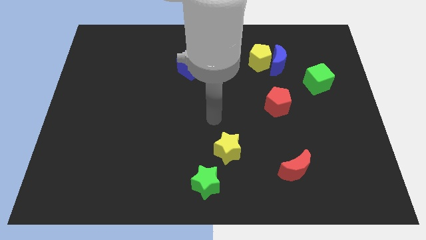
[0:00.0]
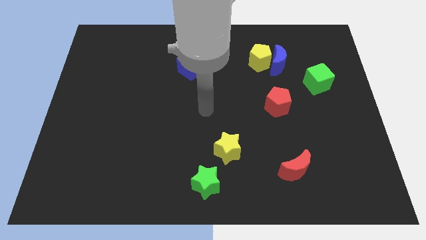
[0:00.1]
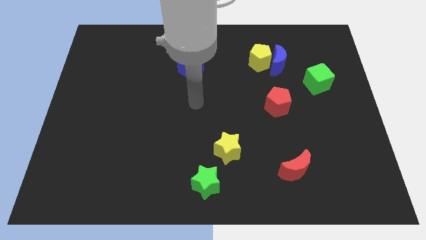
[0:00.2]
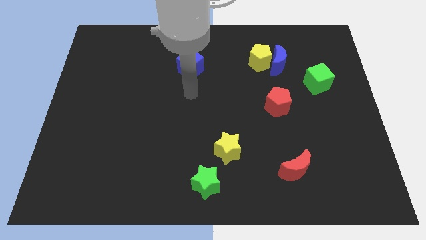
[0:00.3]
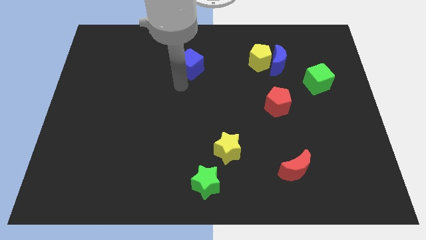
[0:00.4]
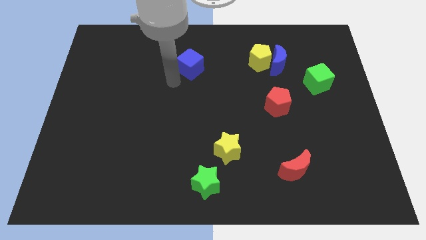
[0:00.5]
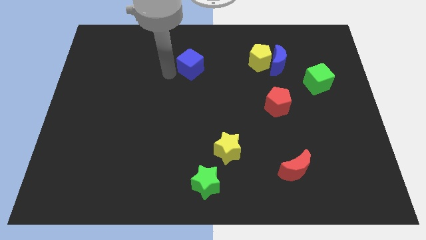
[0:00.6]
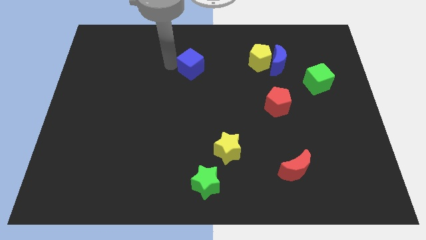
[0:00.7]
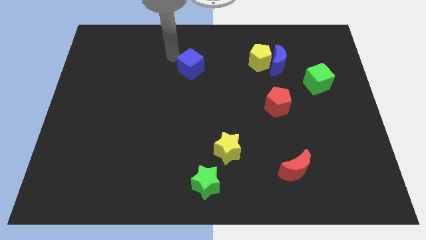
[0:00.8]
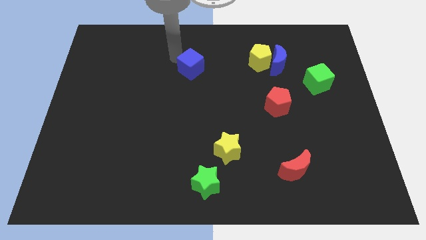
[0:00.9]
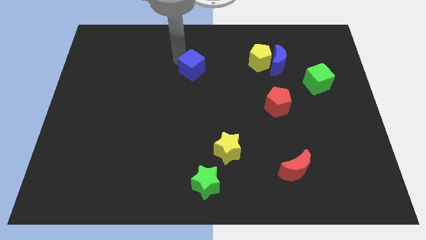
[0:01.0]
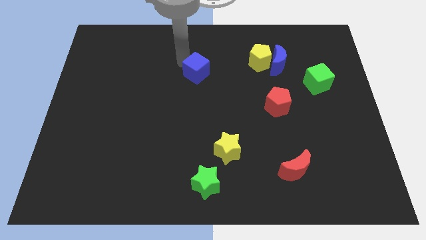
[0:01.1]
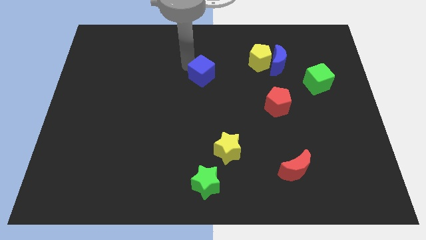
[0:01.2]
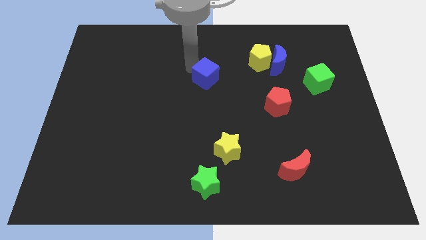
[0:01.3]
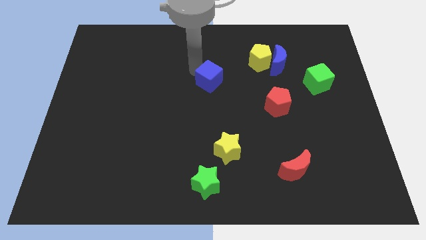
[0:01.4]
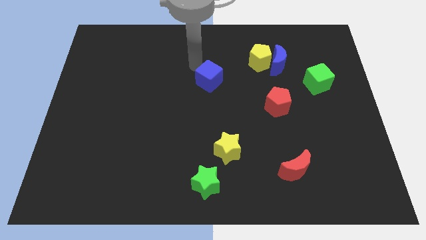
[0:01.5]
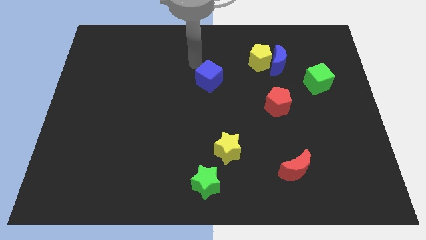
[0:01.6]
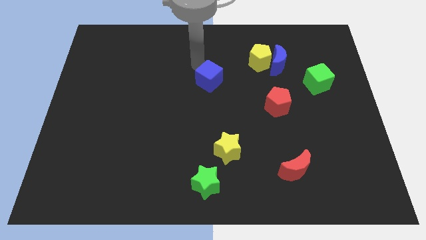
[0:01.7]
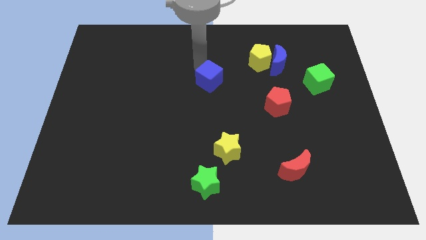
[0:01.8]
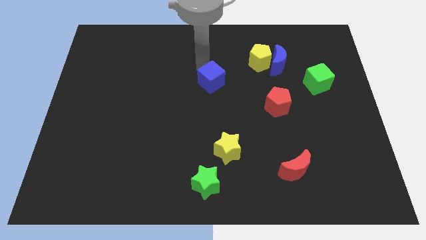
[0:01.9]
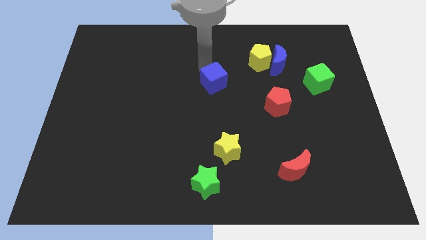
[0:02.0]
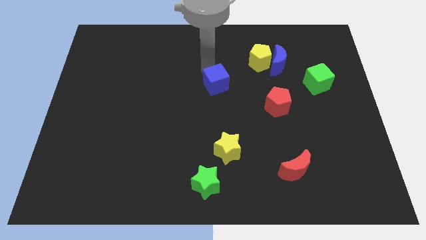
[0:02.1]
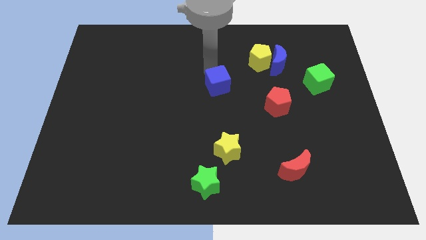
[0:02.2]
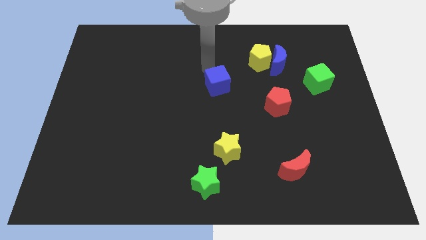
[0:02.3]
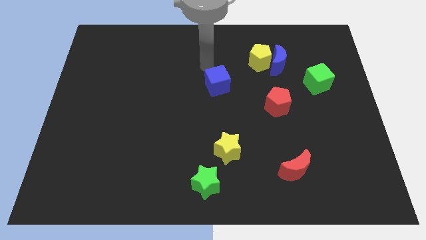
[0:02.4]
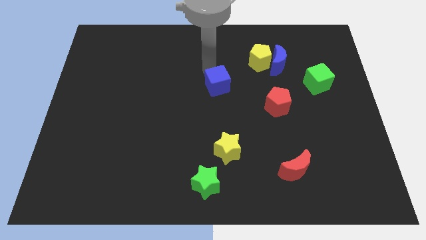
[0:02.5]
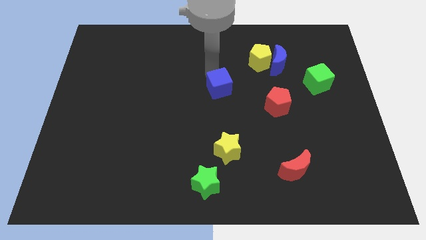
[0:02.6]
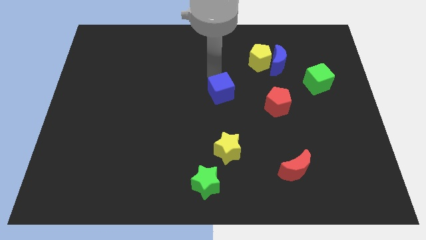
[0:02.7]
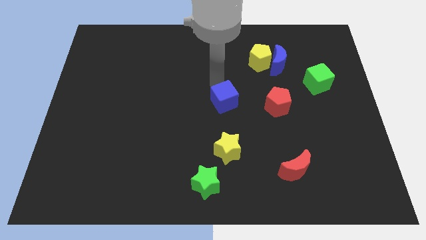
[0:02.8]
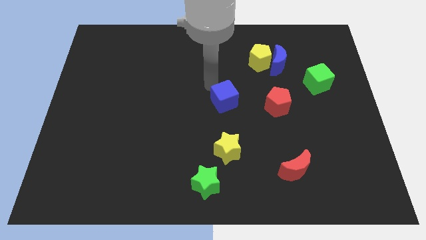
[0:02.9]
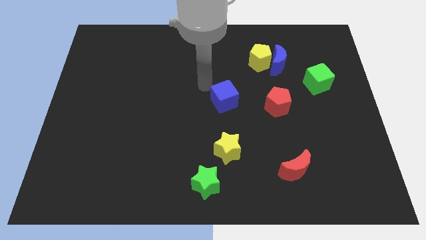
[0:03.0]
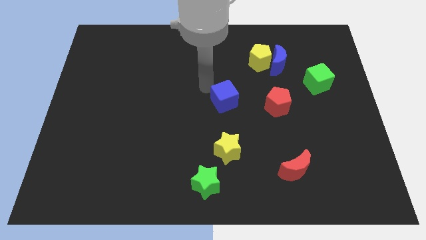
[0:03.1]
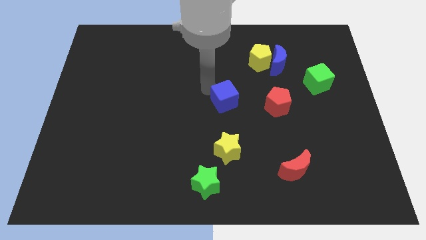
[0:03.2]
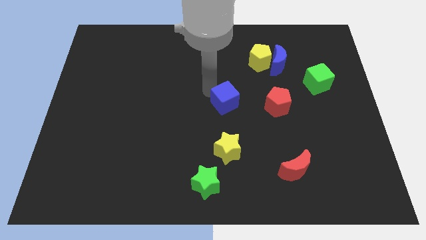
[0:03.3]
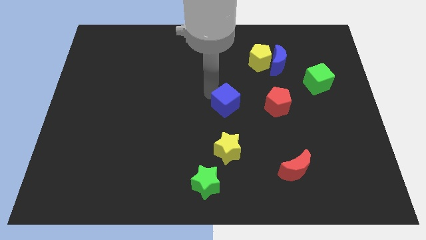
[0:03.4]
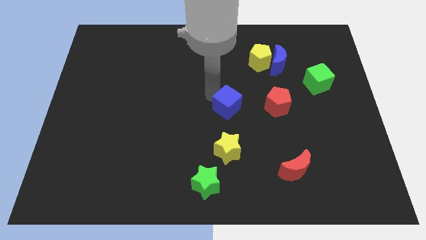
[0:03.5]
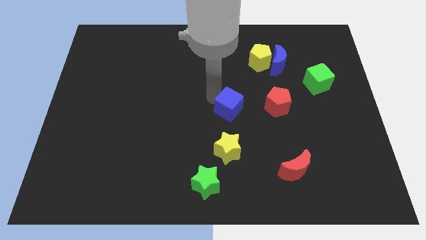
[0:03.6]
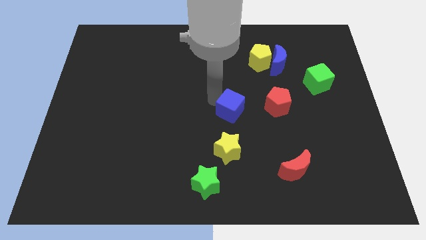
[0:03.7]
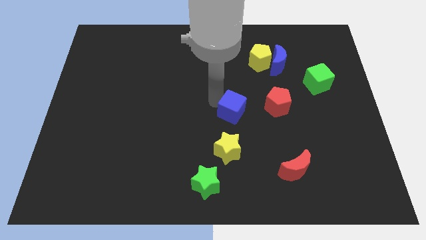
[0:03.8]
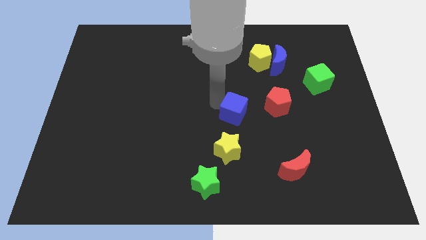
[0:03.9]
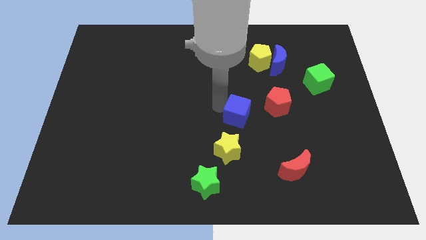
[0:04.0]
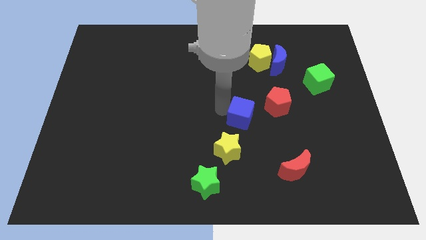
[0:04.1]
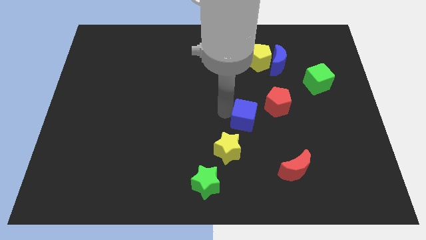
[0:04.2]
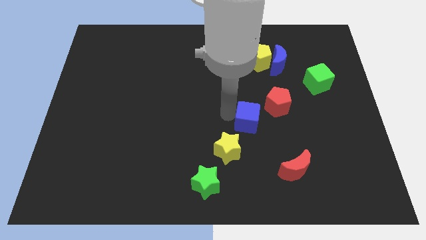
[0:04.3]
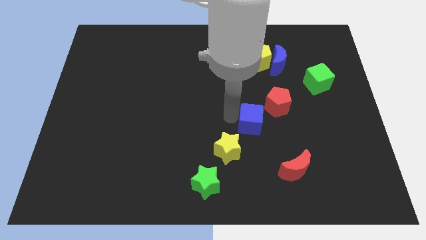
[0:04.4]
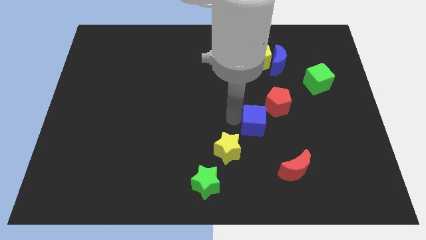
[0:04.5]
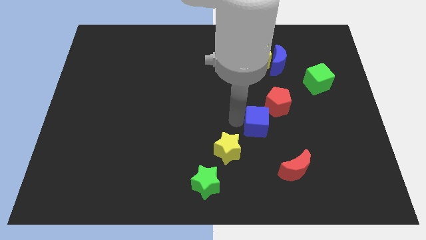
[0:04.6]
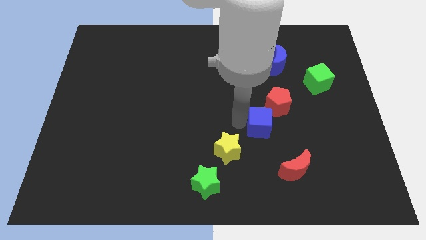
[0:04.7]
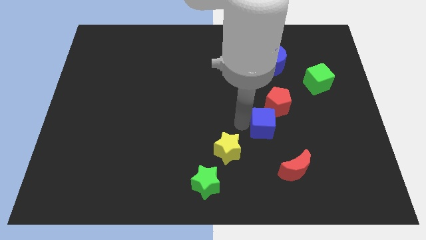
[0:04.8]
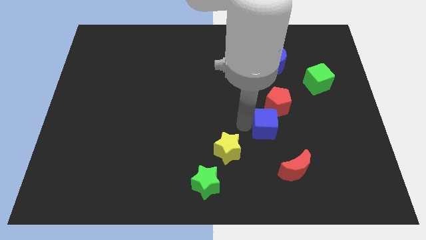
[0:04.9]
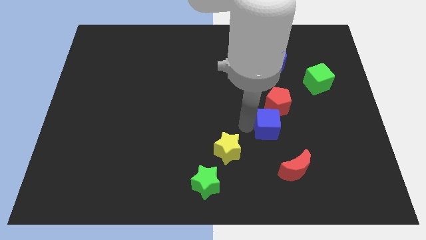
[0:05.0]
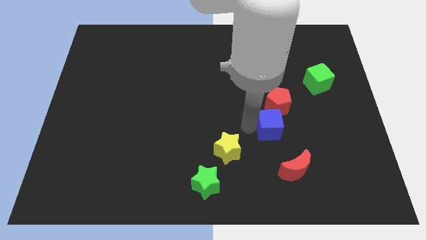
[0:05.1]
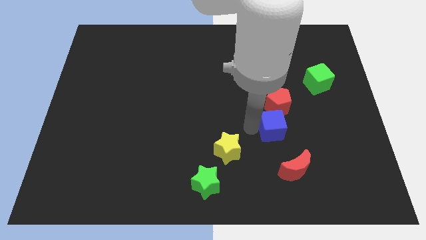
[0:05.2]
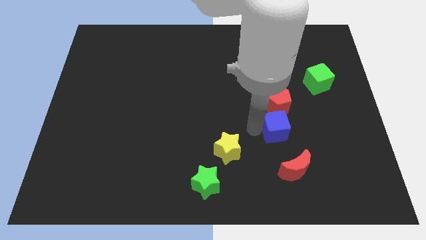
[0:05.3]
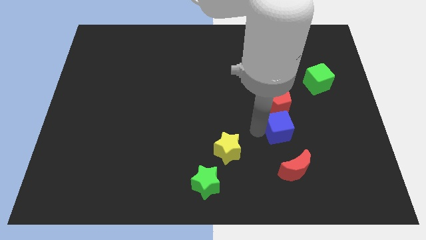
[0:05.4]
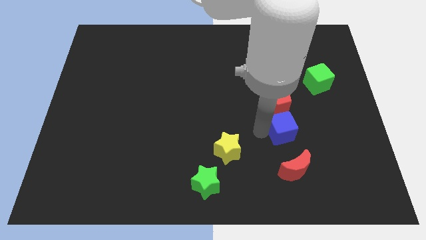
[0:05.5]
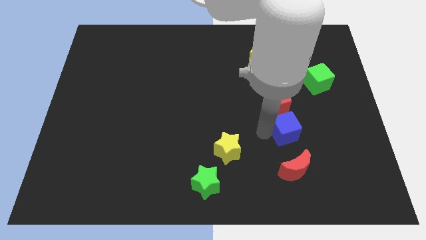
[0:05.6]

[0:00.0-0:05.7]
push the blue cube to the bottom right side of the red pentagon

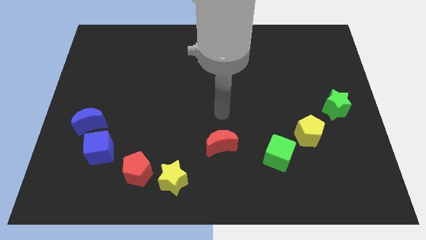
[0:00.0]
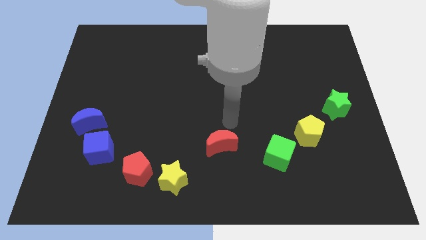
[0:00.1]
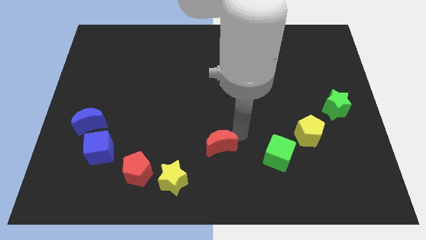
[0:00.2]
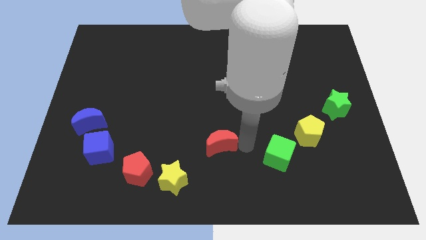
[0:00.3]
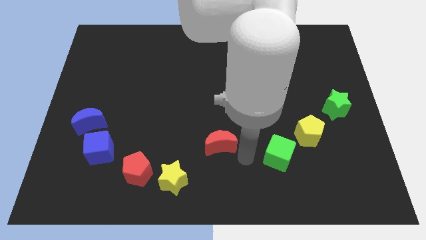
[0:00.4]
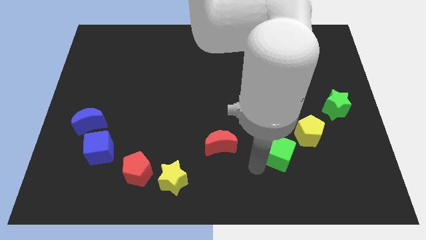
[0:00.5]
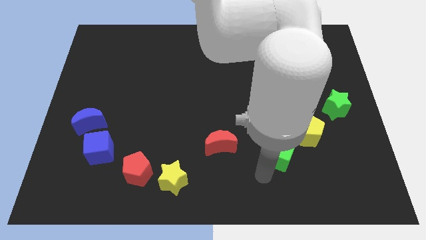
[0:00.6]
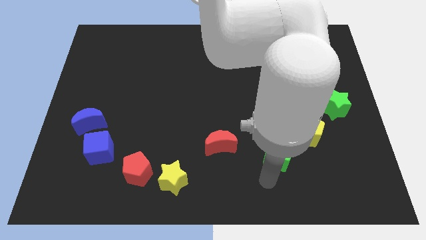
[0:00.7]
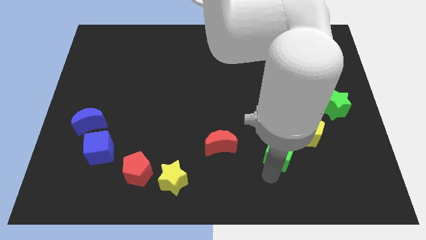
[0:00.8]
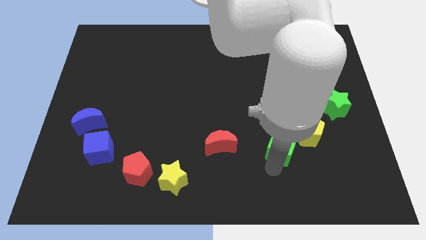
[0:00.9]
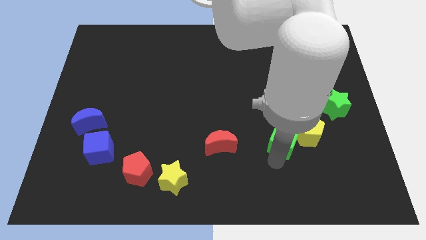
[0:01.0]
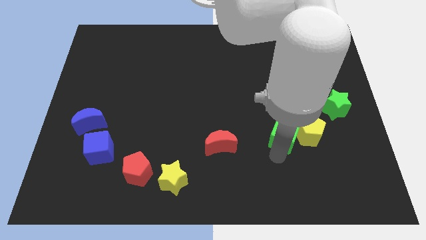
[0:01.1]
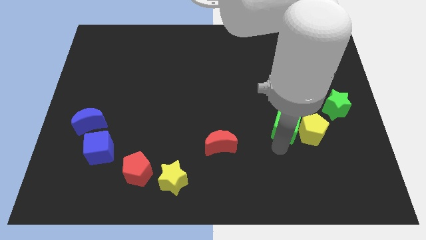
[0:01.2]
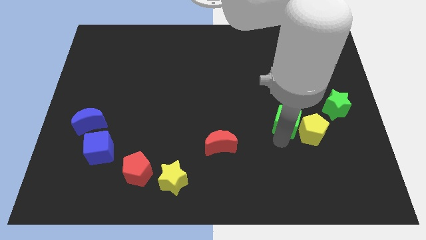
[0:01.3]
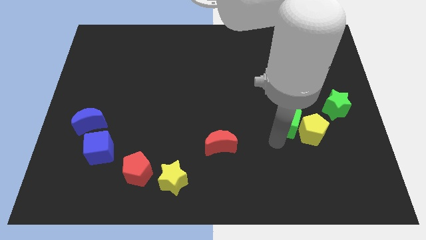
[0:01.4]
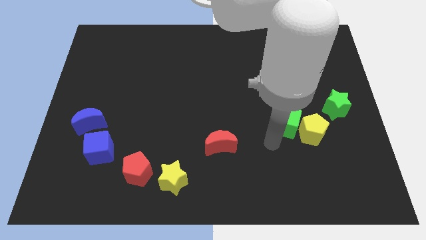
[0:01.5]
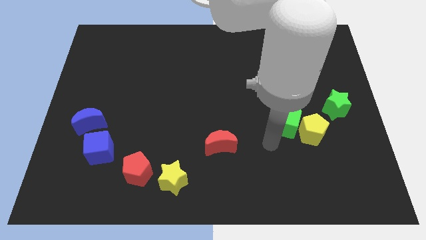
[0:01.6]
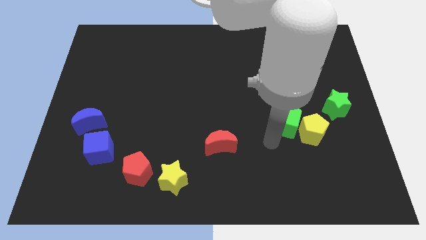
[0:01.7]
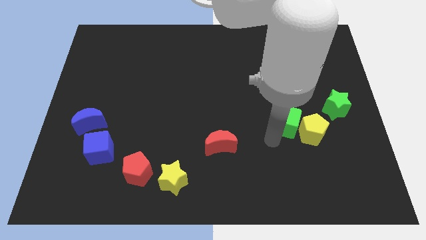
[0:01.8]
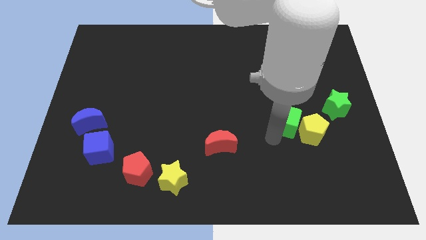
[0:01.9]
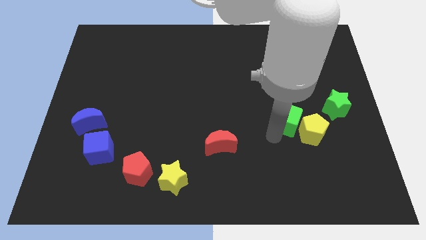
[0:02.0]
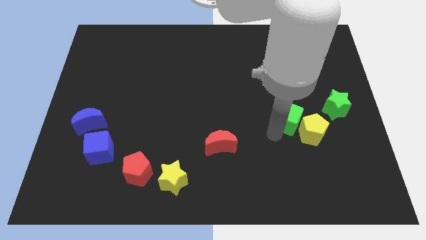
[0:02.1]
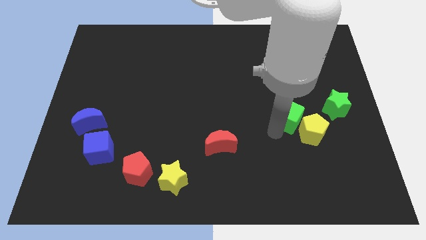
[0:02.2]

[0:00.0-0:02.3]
move the green cube to the top side of the yellow pentagon

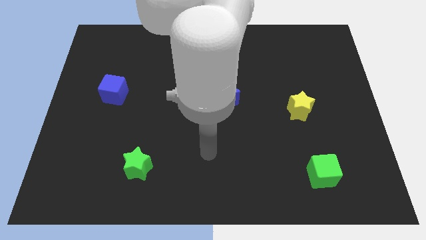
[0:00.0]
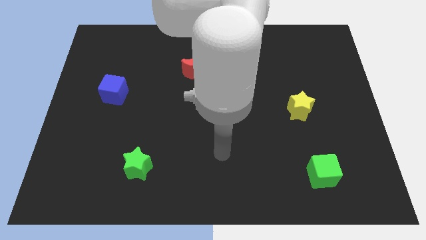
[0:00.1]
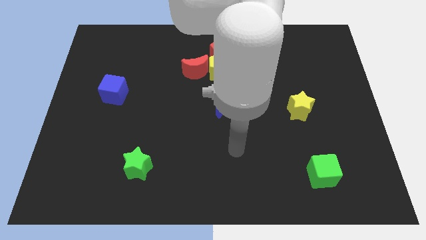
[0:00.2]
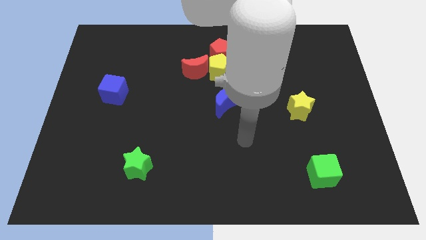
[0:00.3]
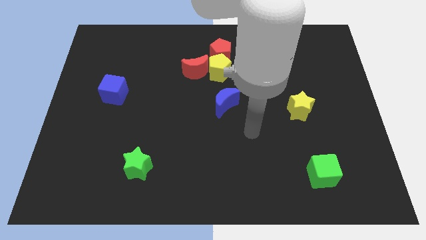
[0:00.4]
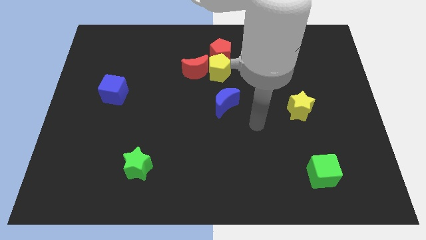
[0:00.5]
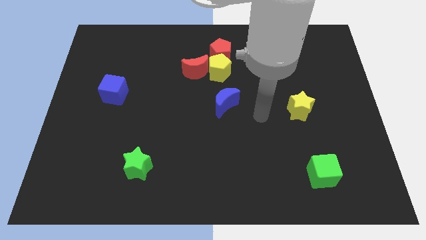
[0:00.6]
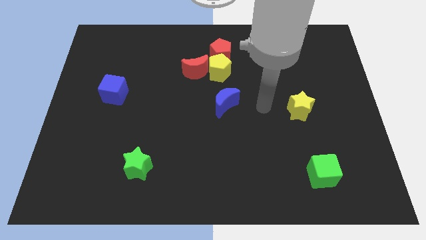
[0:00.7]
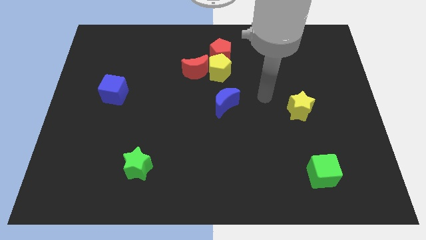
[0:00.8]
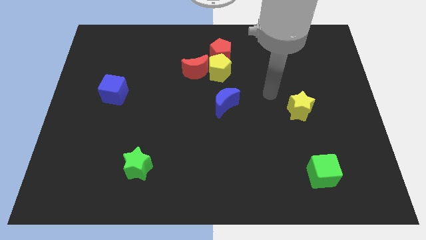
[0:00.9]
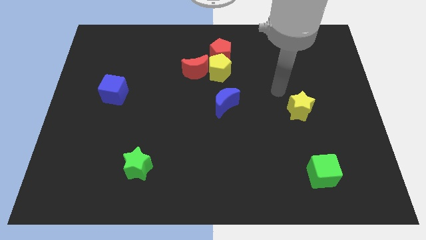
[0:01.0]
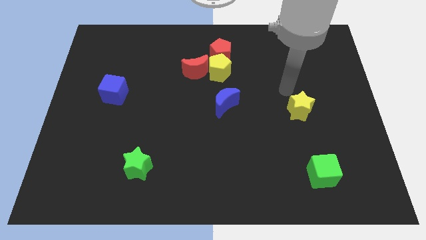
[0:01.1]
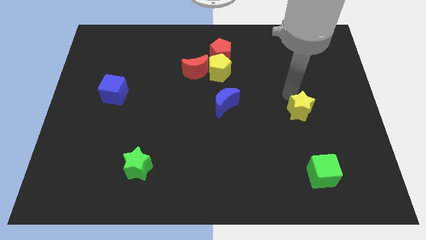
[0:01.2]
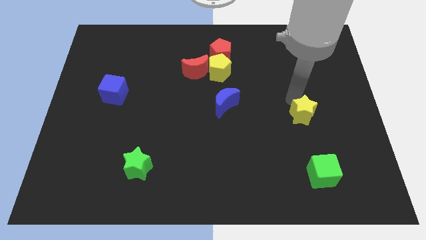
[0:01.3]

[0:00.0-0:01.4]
push the yellow star above the green cube
